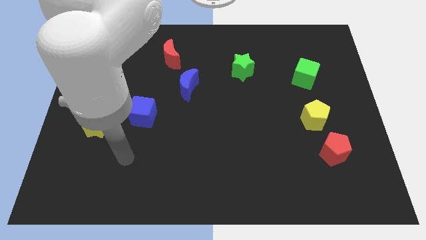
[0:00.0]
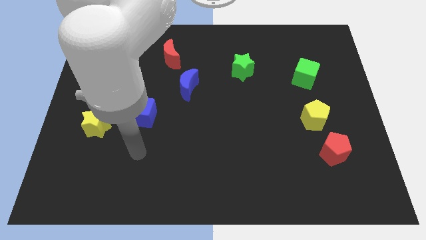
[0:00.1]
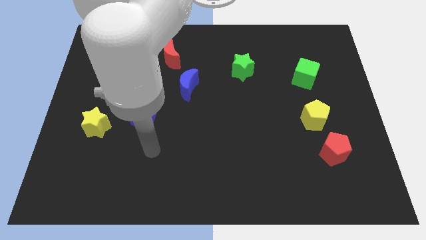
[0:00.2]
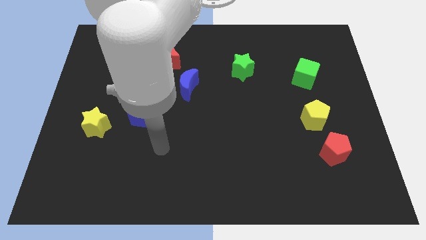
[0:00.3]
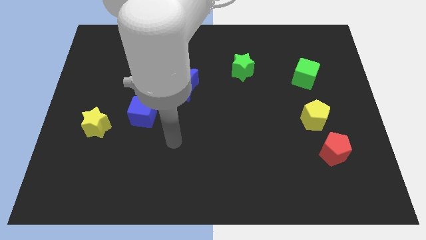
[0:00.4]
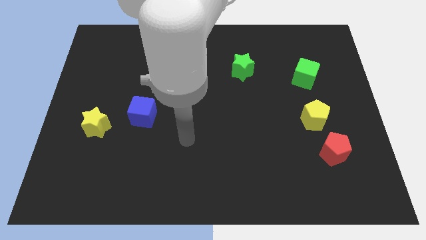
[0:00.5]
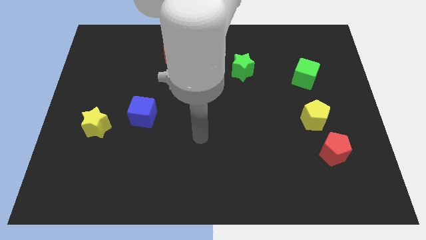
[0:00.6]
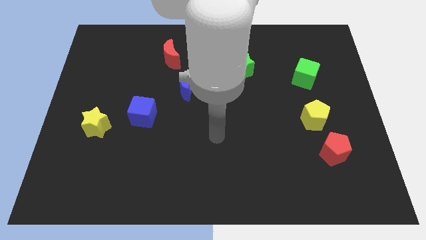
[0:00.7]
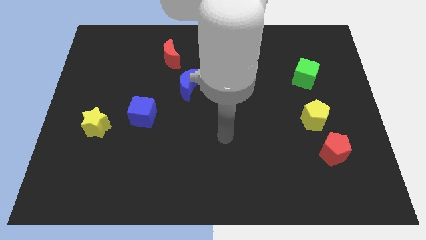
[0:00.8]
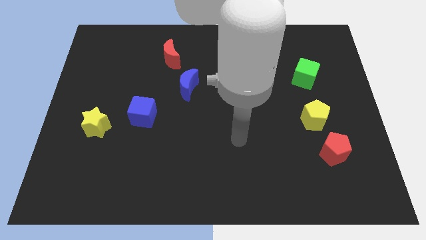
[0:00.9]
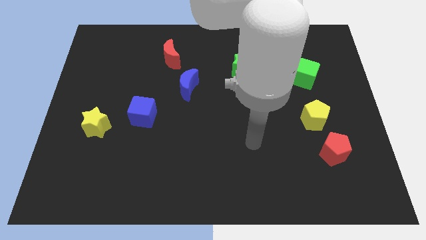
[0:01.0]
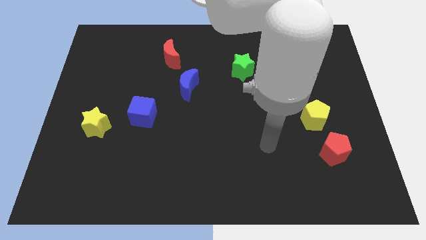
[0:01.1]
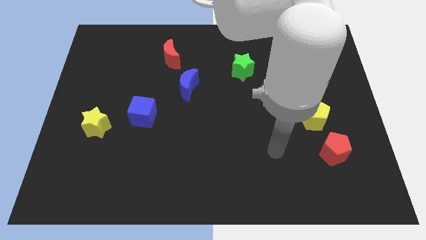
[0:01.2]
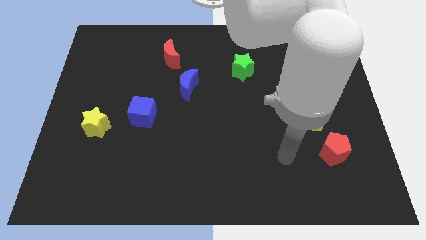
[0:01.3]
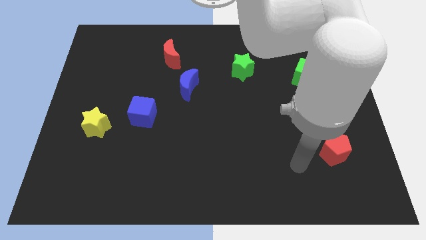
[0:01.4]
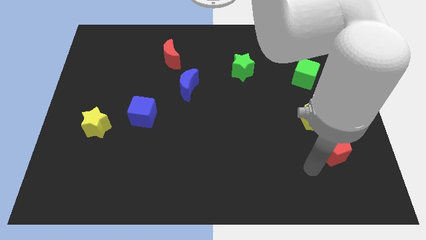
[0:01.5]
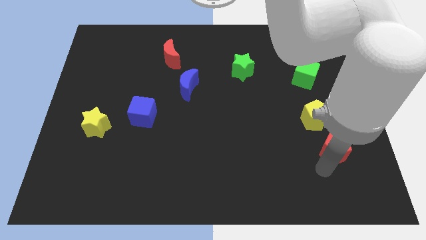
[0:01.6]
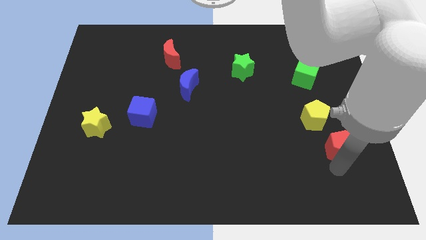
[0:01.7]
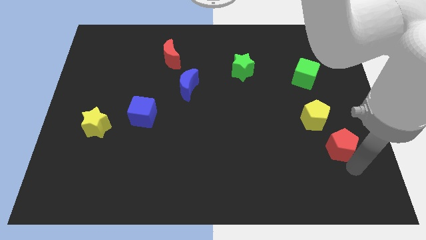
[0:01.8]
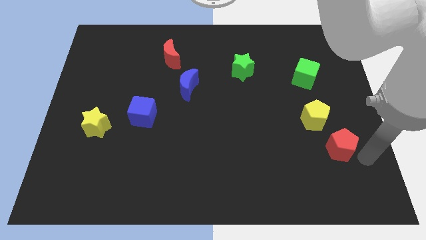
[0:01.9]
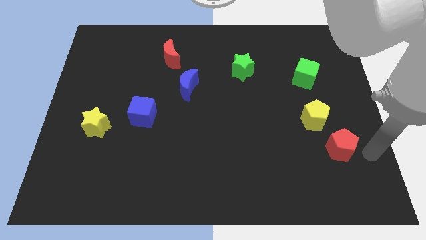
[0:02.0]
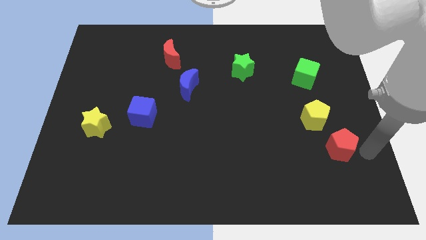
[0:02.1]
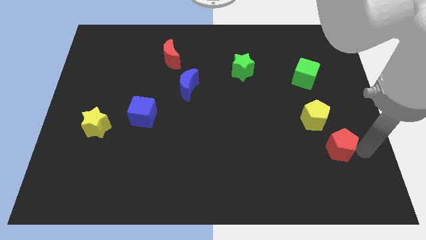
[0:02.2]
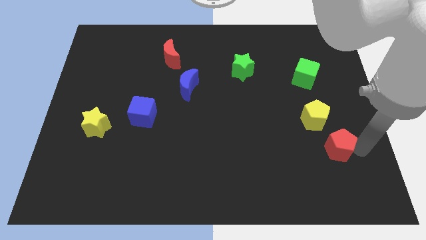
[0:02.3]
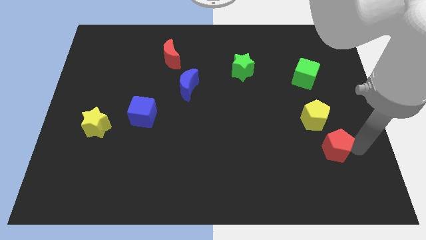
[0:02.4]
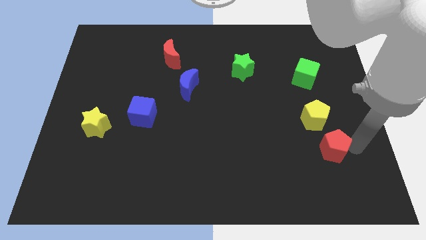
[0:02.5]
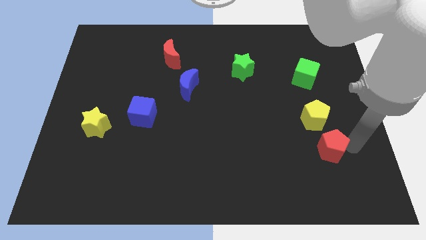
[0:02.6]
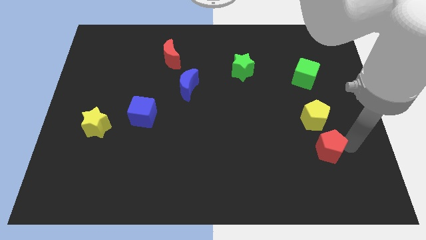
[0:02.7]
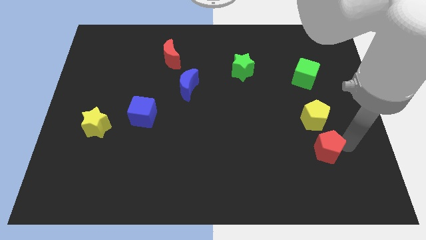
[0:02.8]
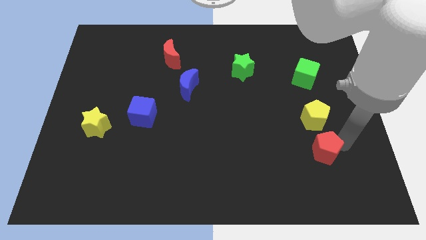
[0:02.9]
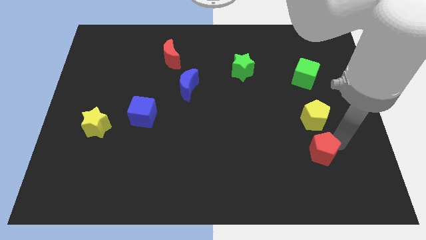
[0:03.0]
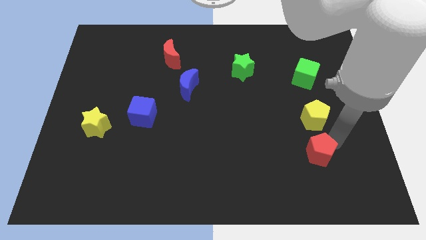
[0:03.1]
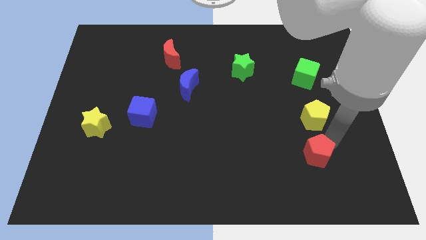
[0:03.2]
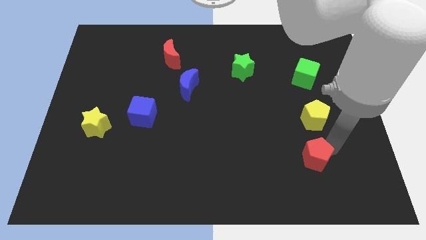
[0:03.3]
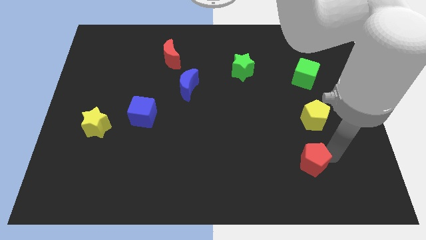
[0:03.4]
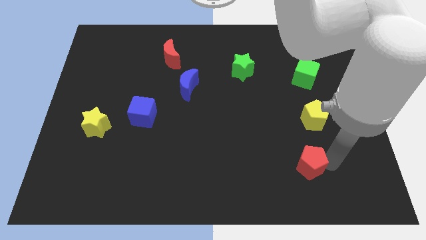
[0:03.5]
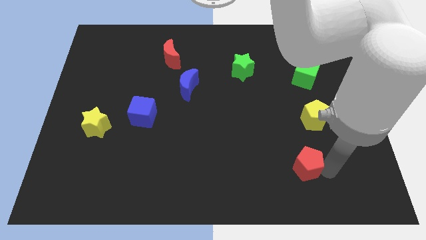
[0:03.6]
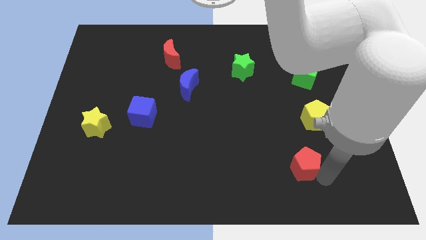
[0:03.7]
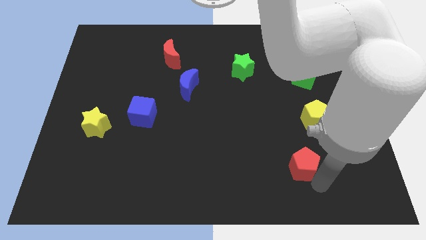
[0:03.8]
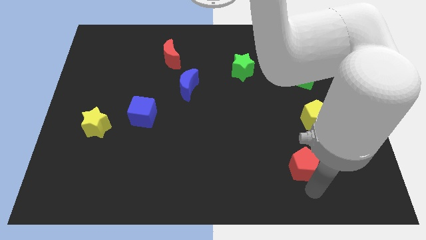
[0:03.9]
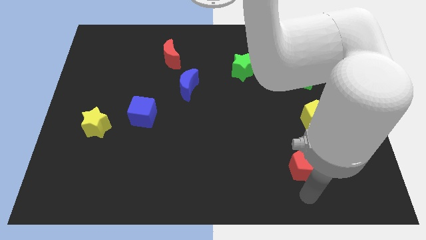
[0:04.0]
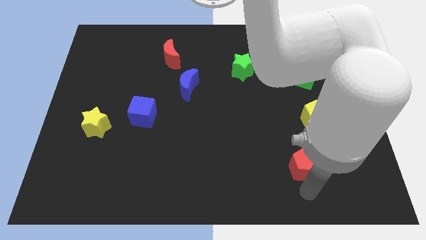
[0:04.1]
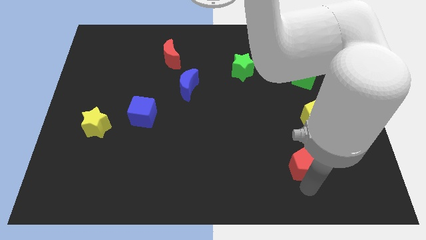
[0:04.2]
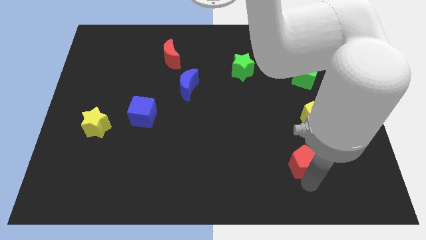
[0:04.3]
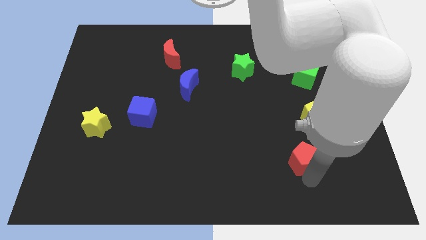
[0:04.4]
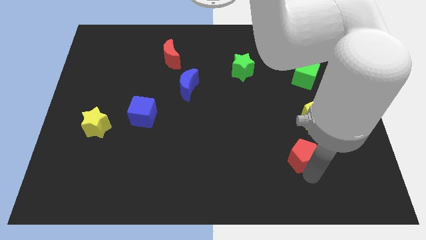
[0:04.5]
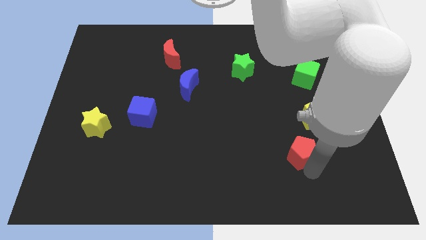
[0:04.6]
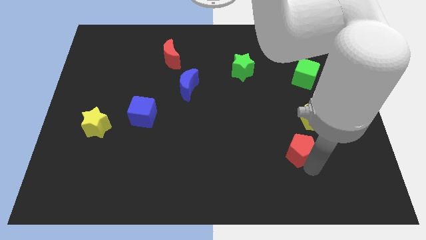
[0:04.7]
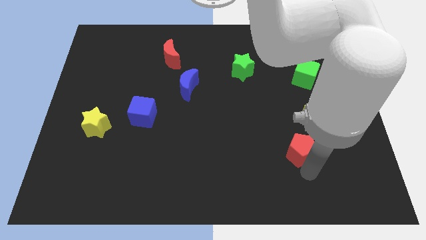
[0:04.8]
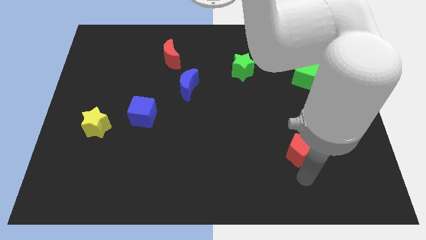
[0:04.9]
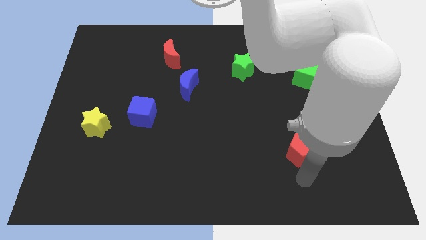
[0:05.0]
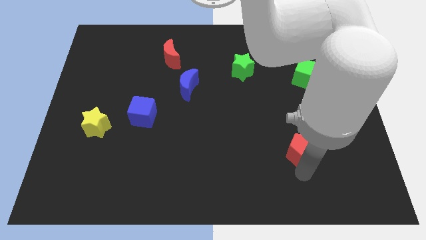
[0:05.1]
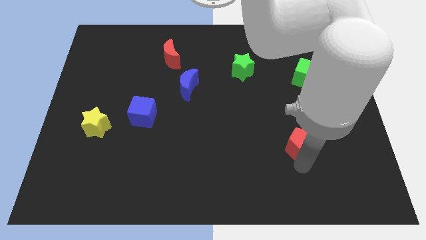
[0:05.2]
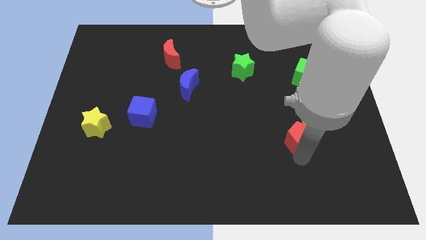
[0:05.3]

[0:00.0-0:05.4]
slightly slide the red pentagon upwards and then to the left

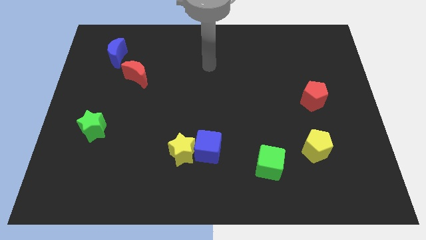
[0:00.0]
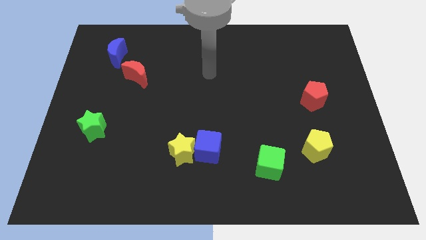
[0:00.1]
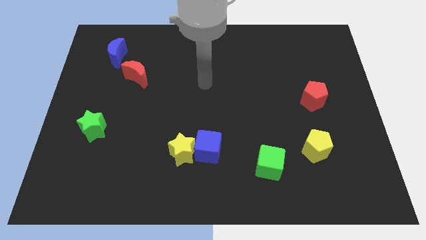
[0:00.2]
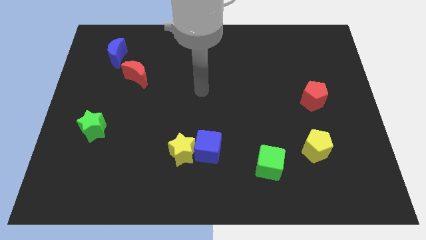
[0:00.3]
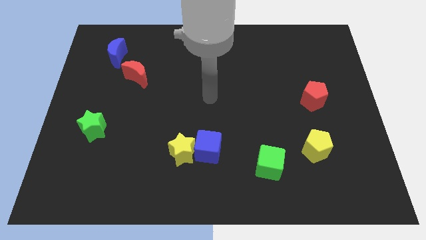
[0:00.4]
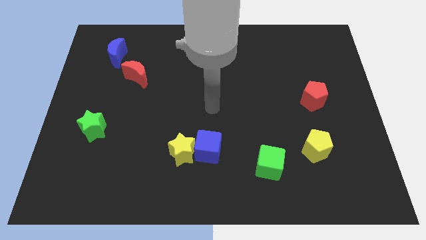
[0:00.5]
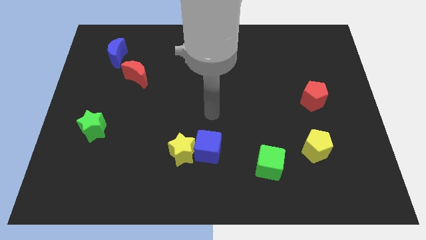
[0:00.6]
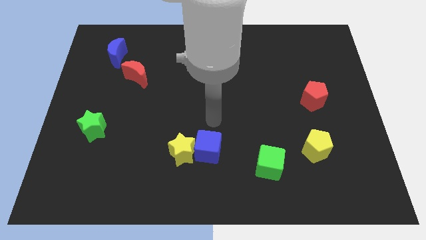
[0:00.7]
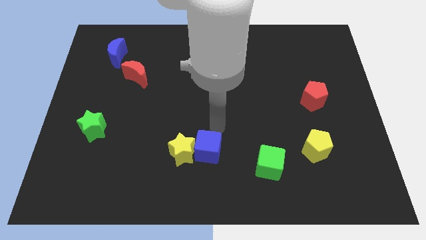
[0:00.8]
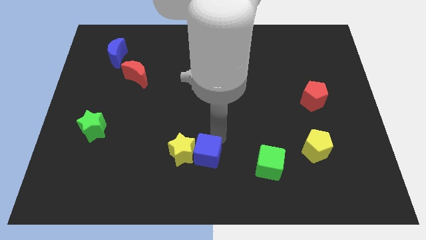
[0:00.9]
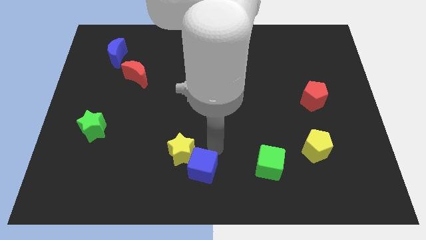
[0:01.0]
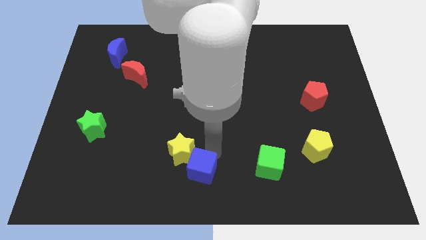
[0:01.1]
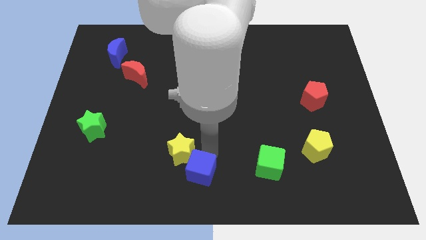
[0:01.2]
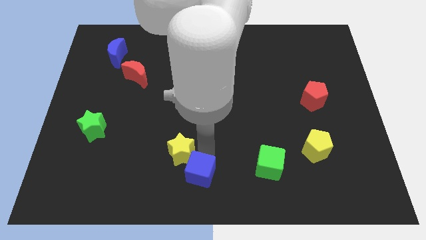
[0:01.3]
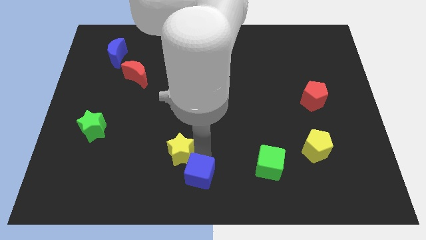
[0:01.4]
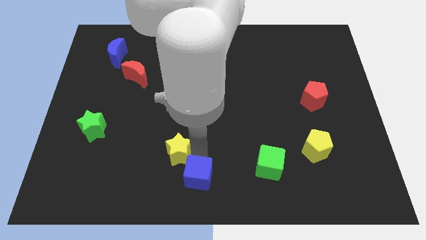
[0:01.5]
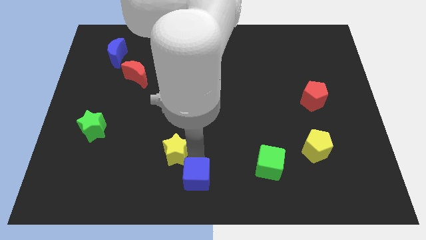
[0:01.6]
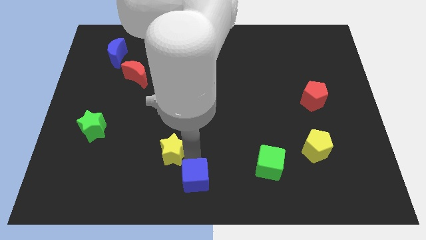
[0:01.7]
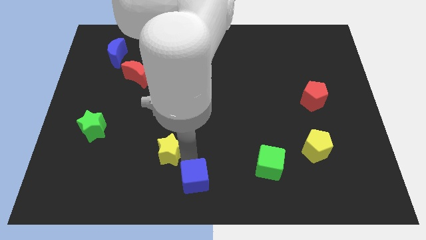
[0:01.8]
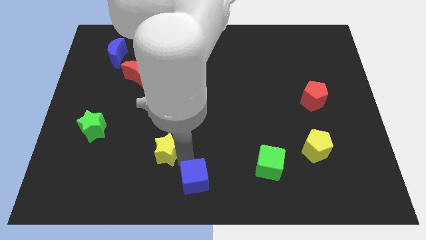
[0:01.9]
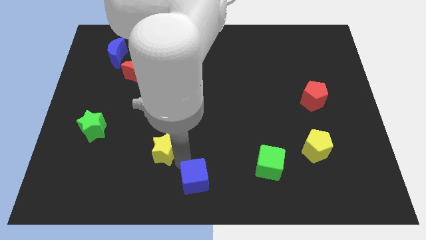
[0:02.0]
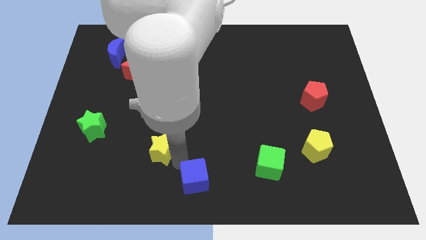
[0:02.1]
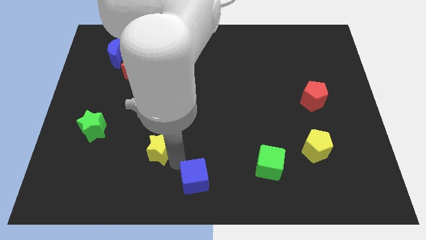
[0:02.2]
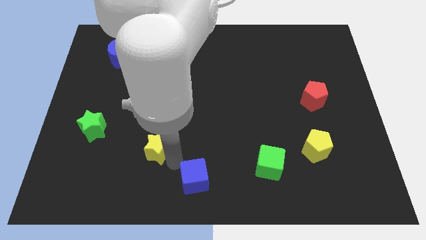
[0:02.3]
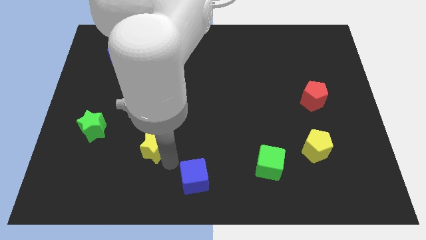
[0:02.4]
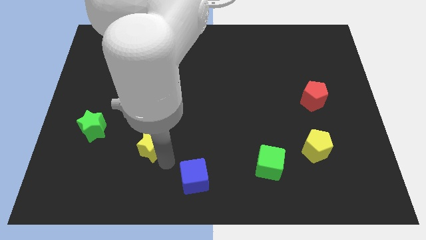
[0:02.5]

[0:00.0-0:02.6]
slightly push the yellow star left
